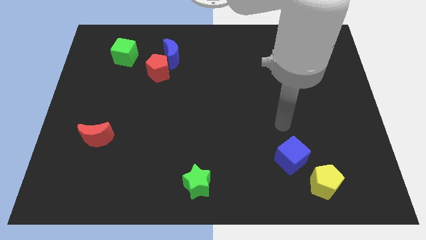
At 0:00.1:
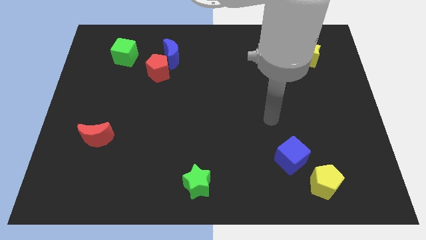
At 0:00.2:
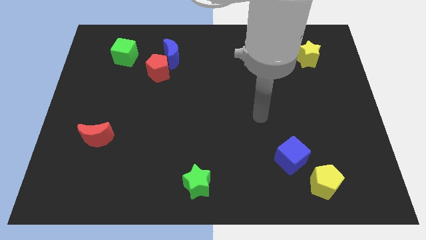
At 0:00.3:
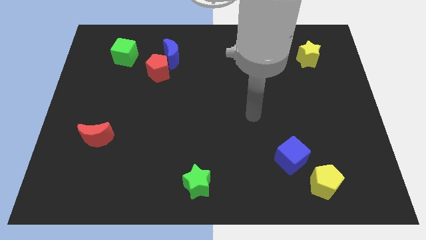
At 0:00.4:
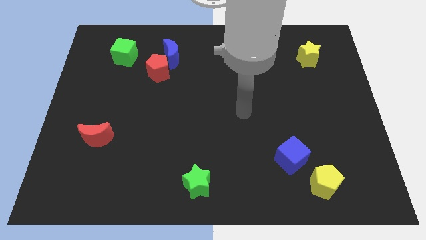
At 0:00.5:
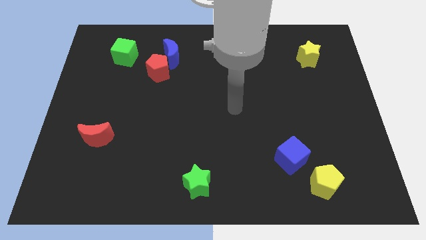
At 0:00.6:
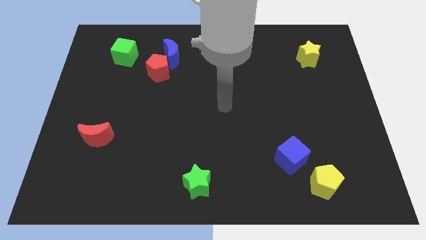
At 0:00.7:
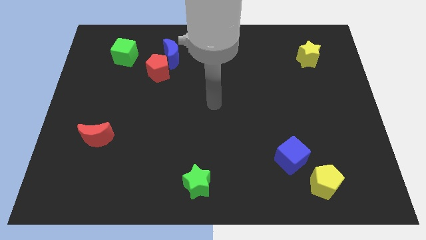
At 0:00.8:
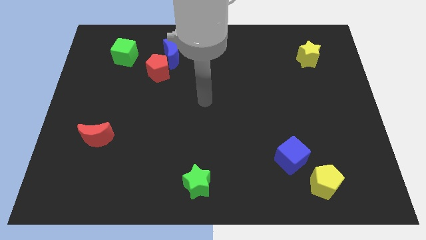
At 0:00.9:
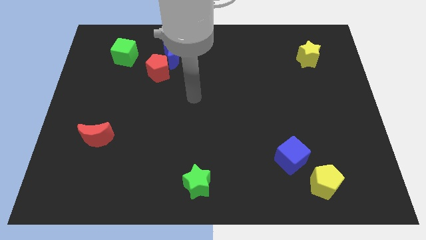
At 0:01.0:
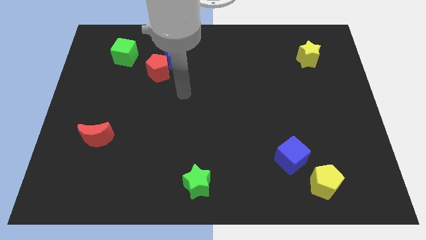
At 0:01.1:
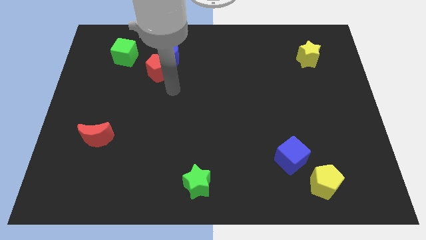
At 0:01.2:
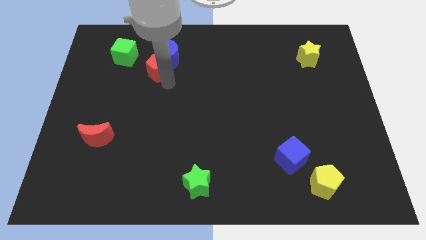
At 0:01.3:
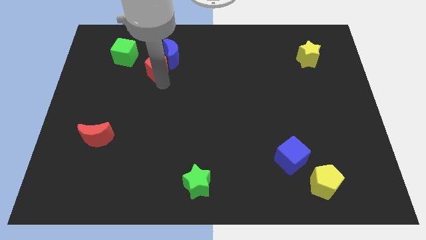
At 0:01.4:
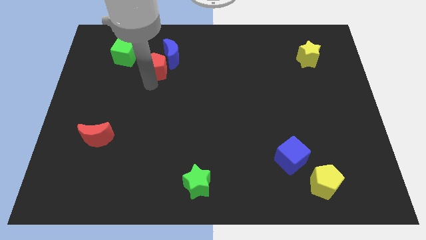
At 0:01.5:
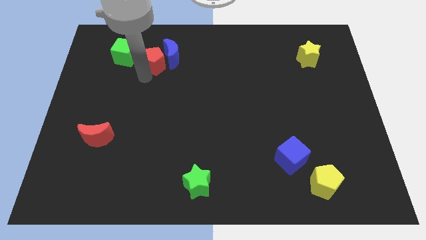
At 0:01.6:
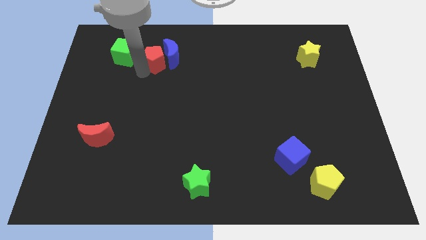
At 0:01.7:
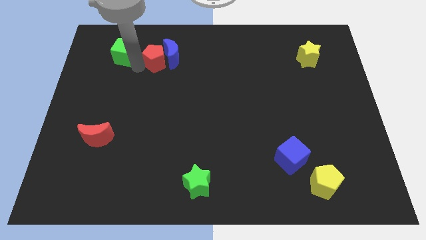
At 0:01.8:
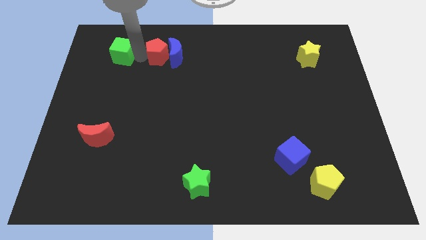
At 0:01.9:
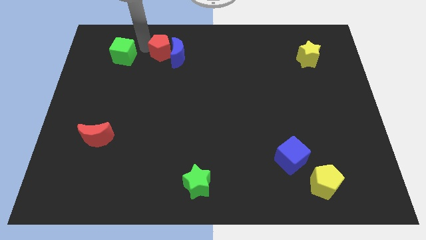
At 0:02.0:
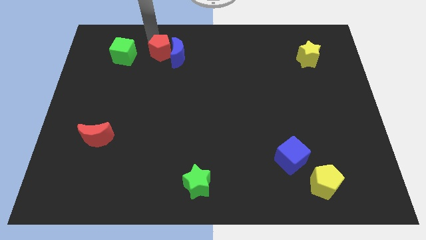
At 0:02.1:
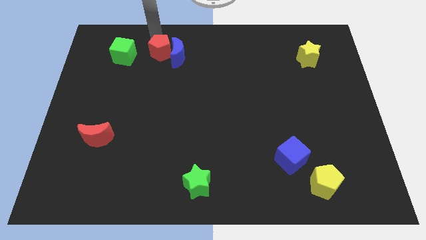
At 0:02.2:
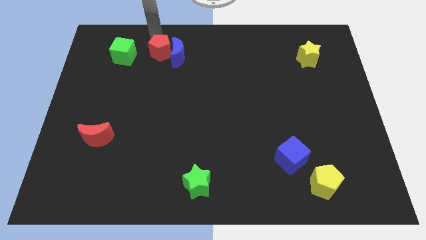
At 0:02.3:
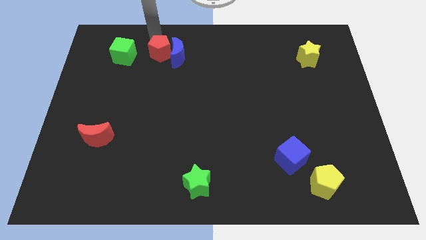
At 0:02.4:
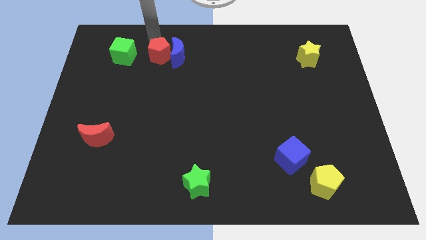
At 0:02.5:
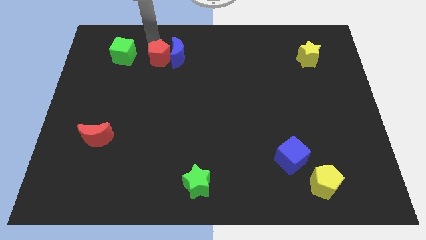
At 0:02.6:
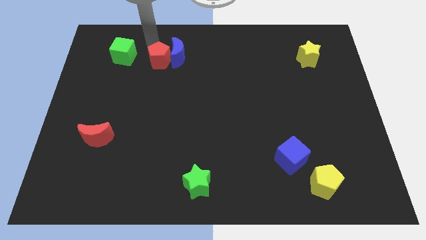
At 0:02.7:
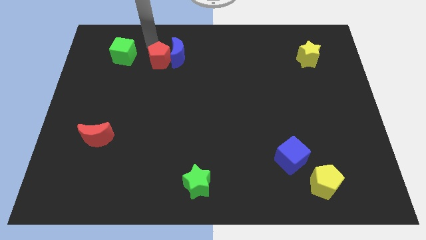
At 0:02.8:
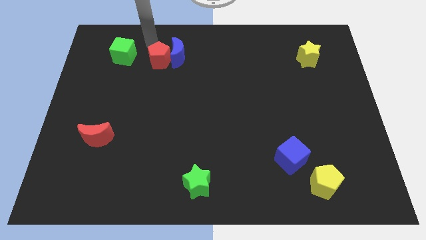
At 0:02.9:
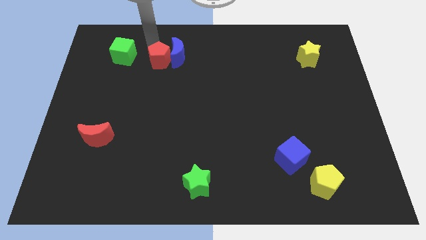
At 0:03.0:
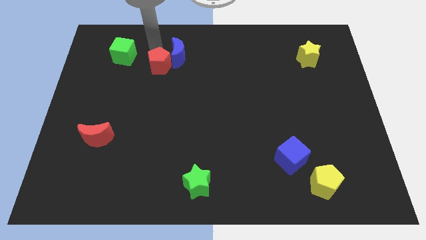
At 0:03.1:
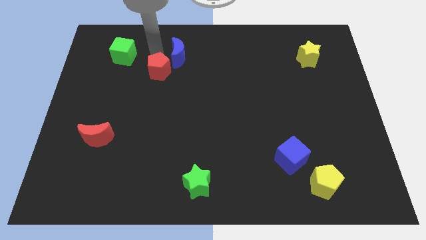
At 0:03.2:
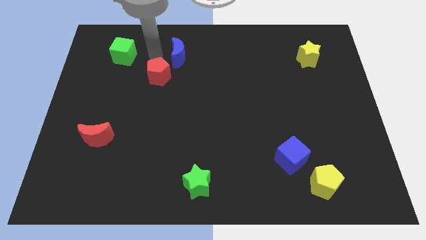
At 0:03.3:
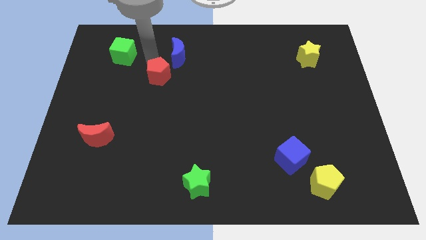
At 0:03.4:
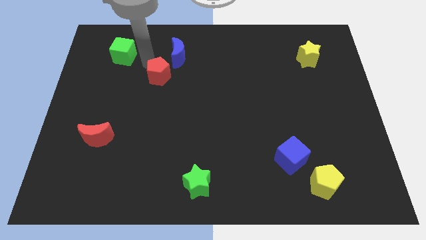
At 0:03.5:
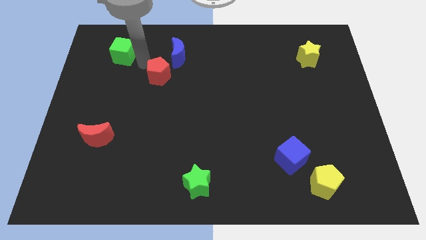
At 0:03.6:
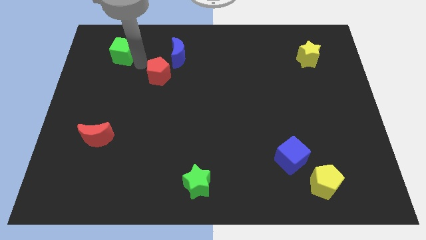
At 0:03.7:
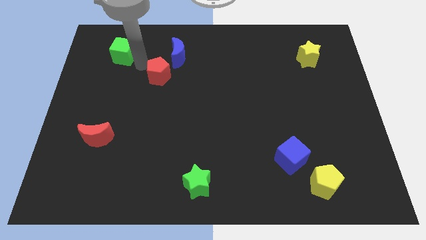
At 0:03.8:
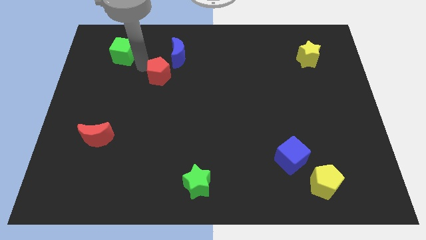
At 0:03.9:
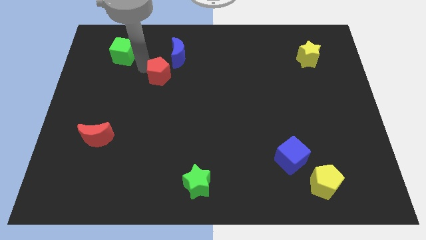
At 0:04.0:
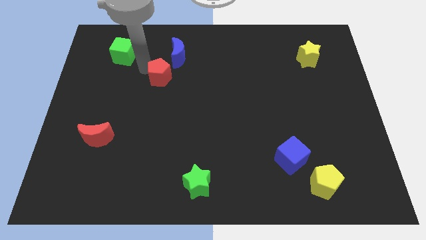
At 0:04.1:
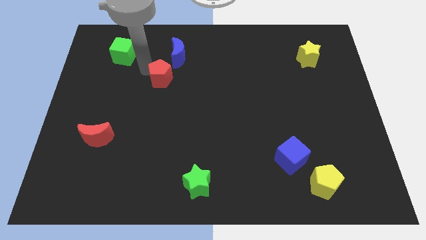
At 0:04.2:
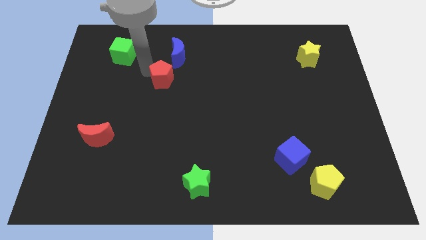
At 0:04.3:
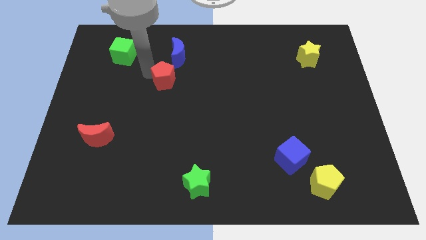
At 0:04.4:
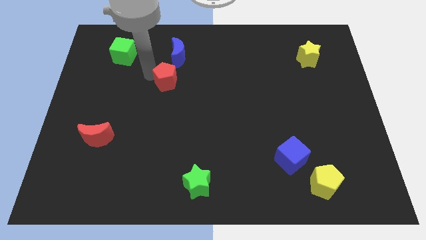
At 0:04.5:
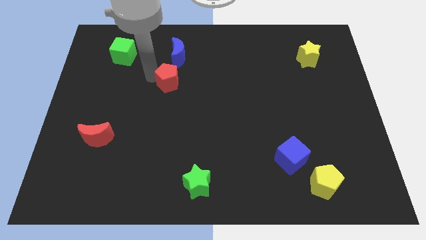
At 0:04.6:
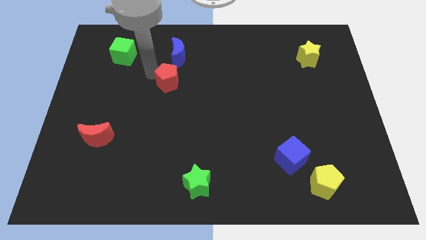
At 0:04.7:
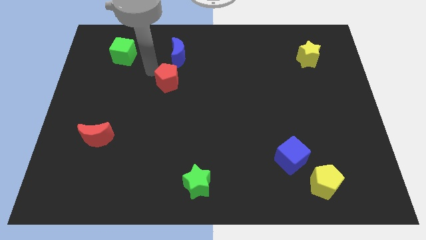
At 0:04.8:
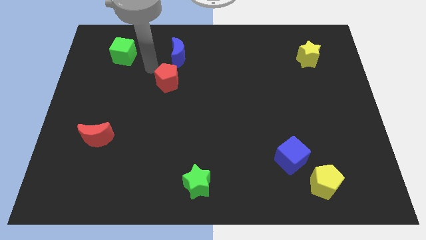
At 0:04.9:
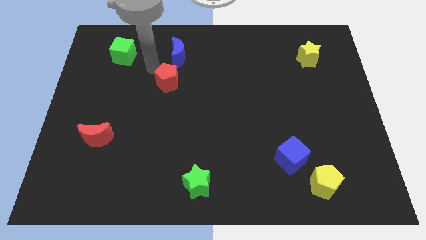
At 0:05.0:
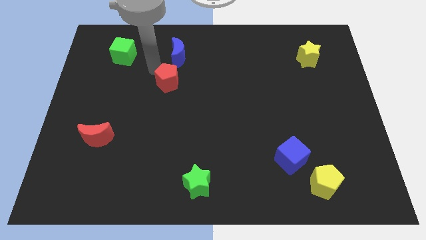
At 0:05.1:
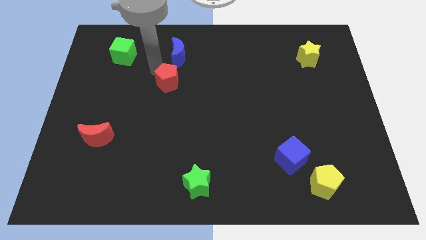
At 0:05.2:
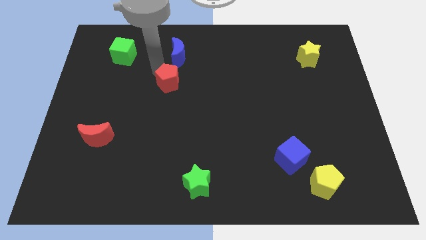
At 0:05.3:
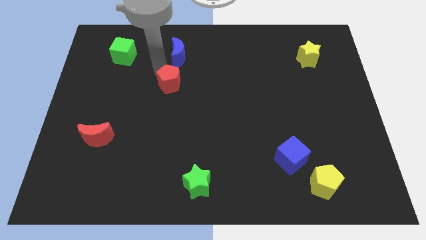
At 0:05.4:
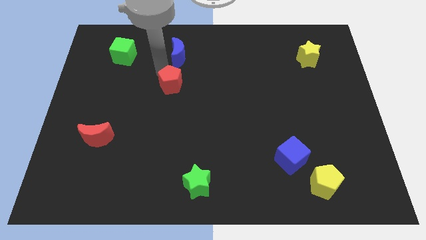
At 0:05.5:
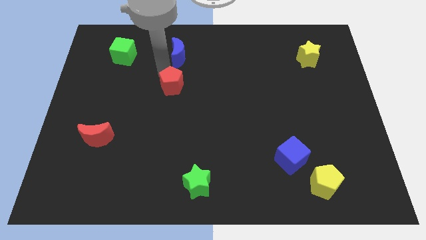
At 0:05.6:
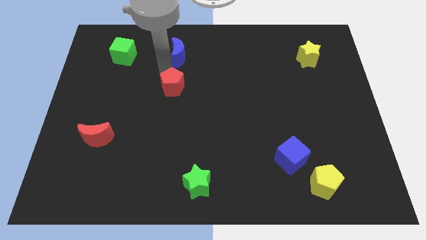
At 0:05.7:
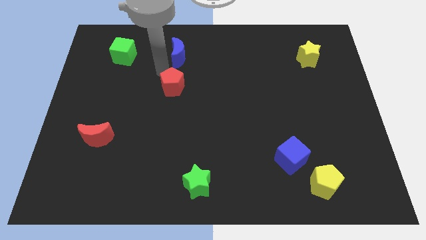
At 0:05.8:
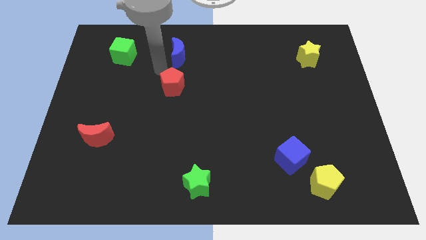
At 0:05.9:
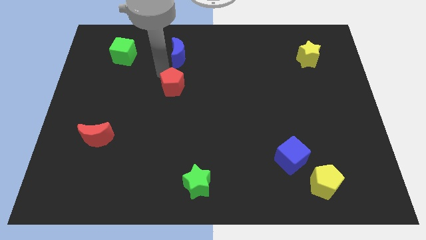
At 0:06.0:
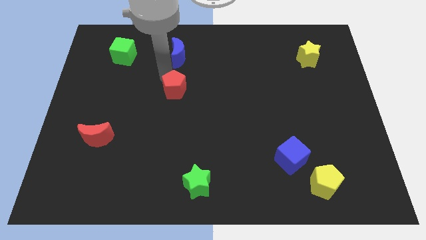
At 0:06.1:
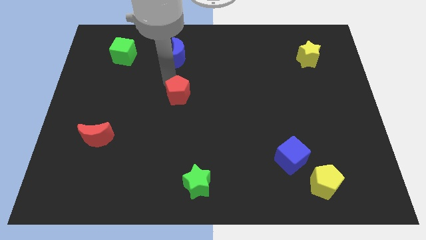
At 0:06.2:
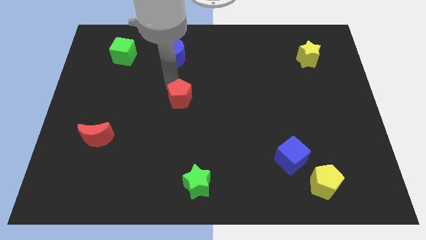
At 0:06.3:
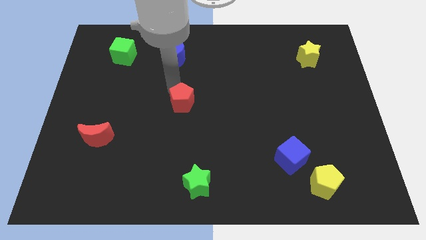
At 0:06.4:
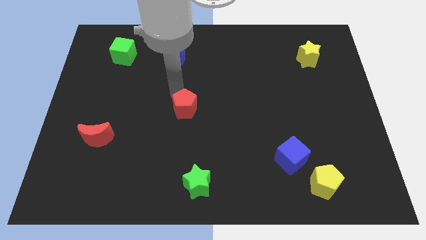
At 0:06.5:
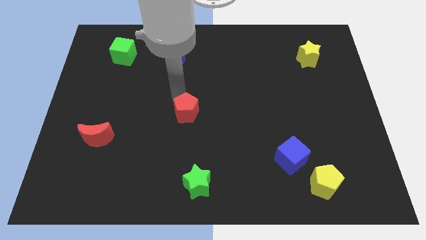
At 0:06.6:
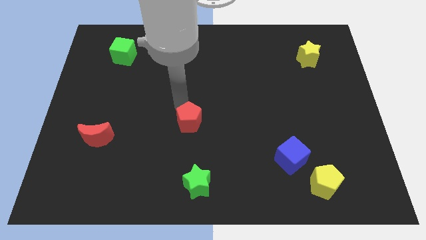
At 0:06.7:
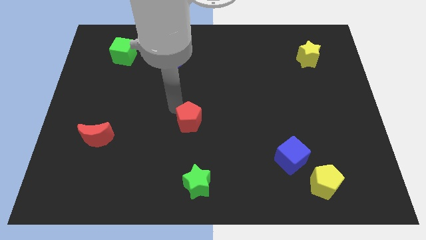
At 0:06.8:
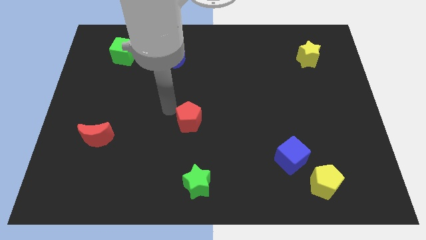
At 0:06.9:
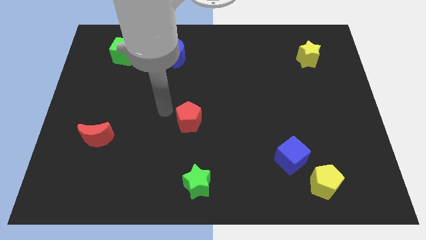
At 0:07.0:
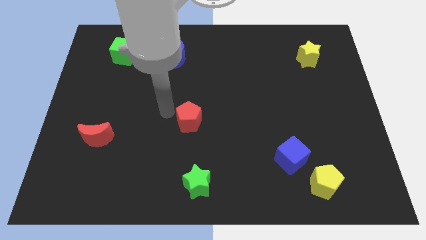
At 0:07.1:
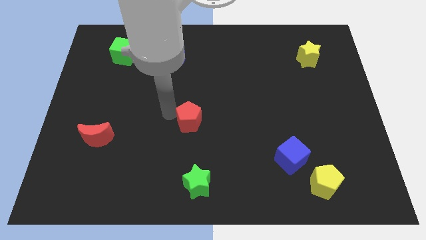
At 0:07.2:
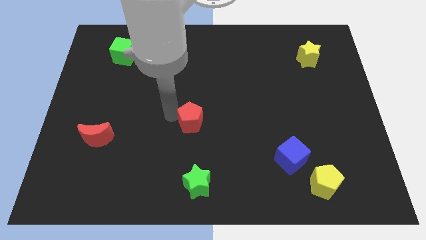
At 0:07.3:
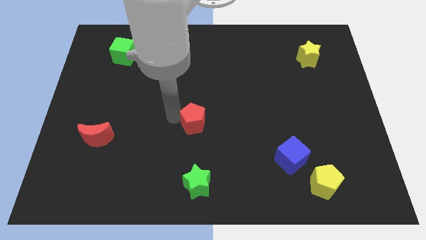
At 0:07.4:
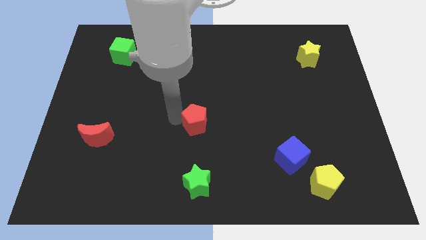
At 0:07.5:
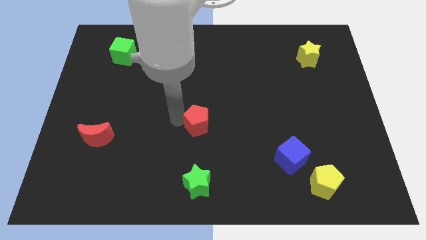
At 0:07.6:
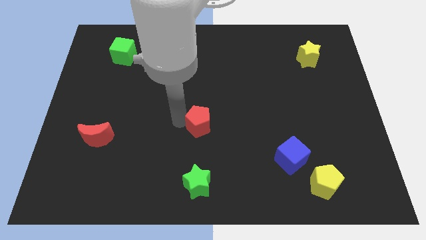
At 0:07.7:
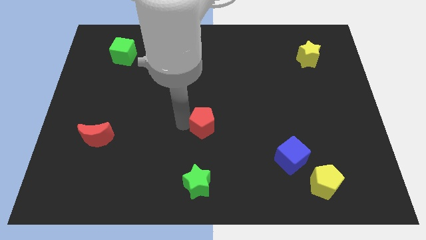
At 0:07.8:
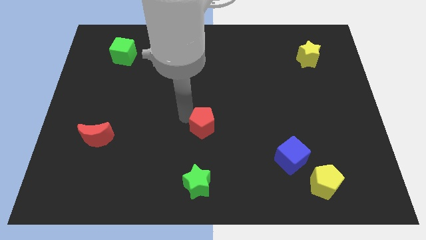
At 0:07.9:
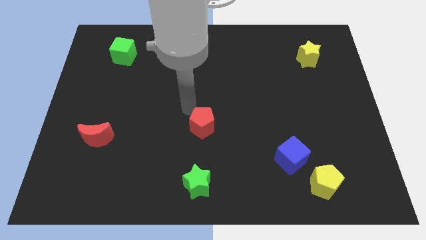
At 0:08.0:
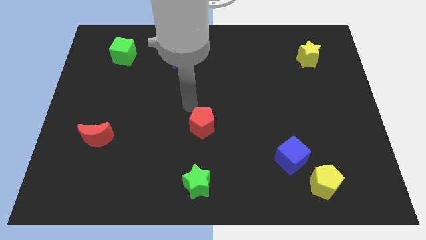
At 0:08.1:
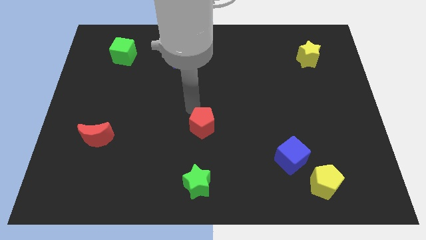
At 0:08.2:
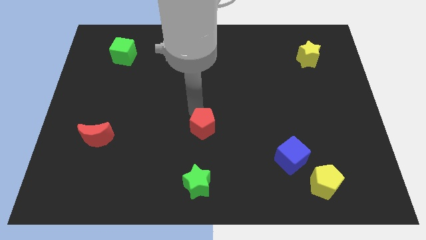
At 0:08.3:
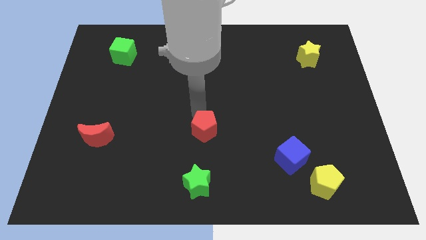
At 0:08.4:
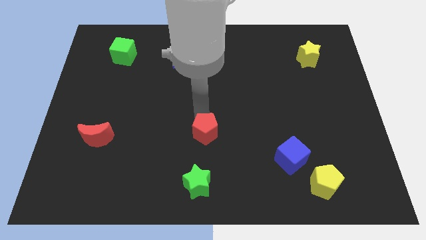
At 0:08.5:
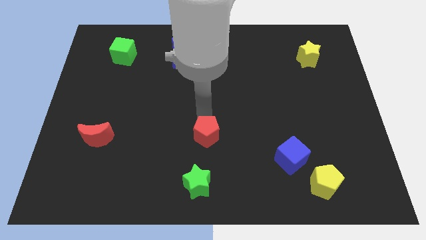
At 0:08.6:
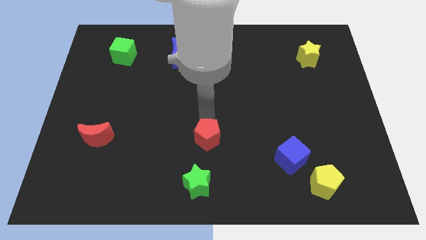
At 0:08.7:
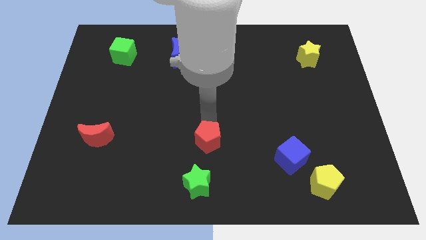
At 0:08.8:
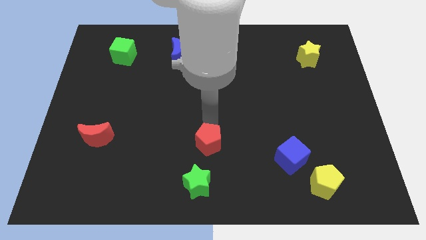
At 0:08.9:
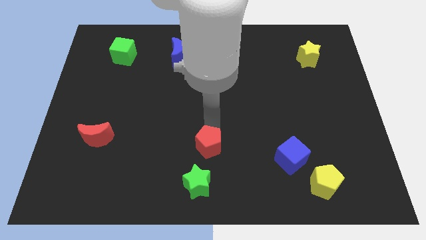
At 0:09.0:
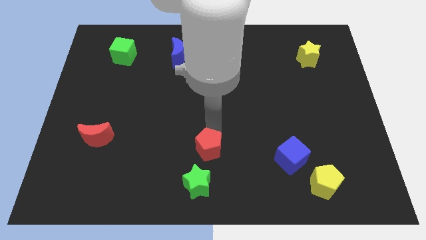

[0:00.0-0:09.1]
move the red pentagon to the top right side of the green star
